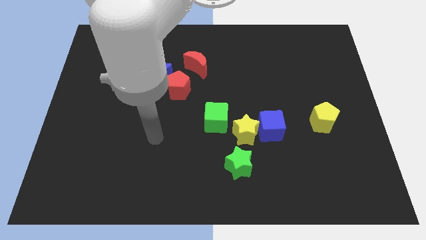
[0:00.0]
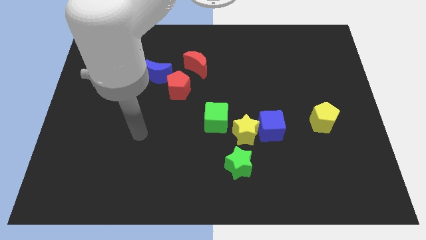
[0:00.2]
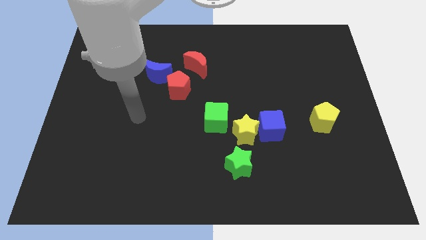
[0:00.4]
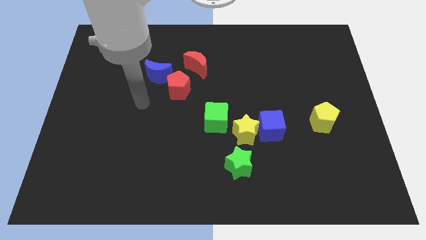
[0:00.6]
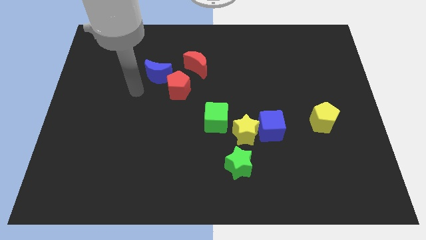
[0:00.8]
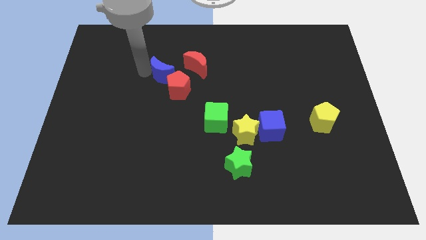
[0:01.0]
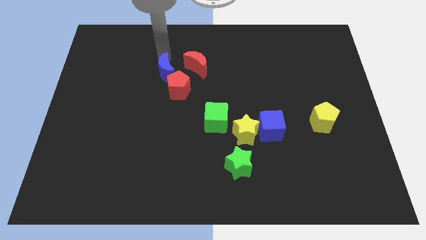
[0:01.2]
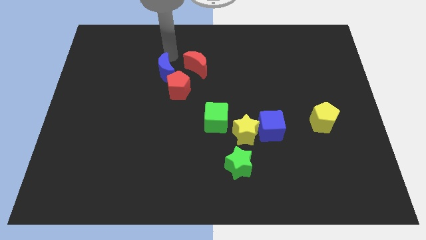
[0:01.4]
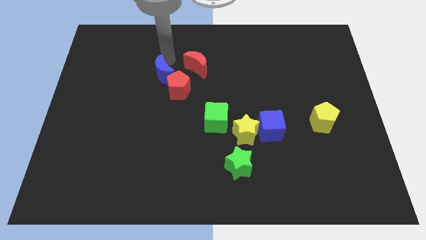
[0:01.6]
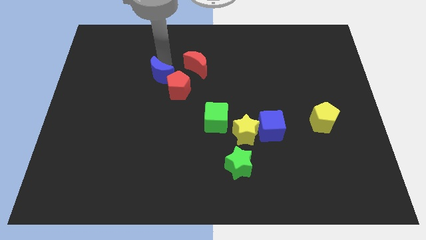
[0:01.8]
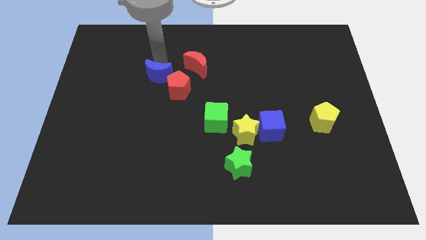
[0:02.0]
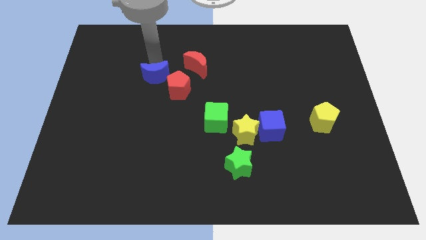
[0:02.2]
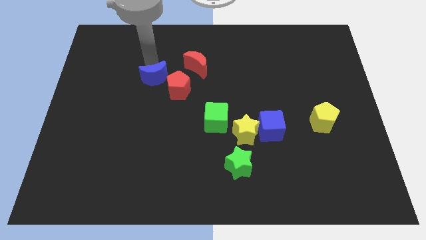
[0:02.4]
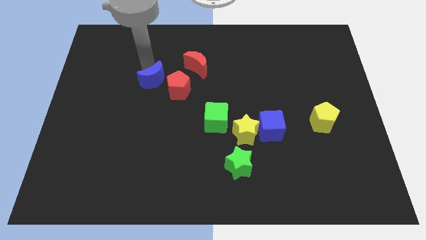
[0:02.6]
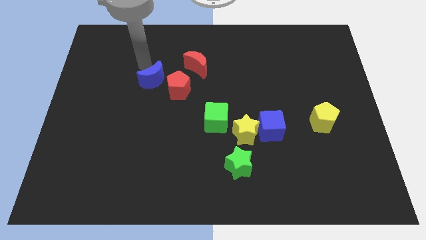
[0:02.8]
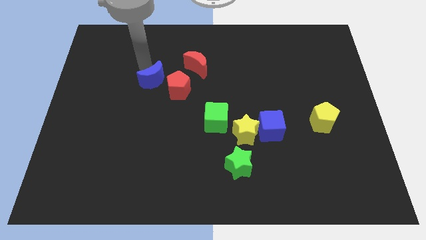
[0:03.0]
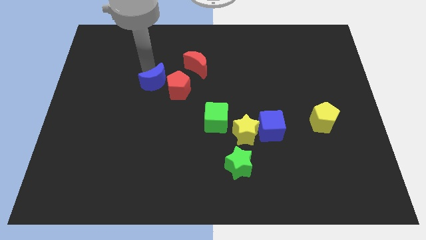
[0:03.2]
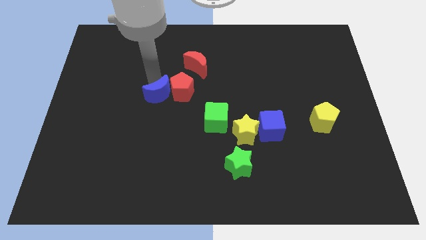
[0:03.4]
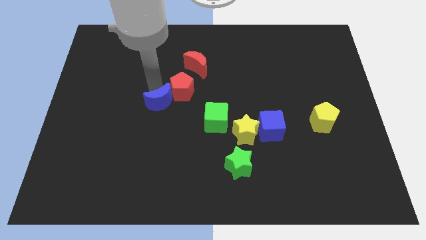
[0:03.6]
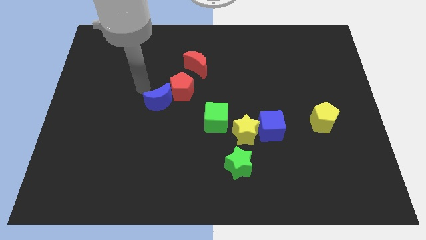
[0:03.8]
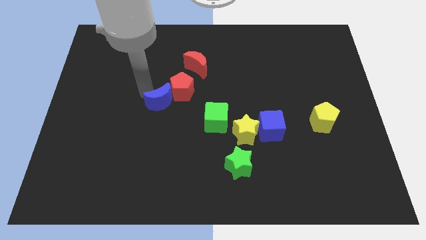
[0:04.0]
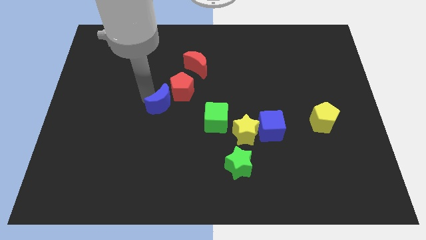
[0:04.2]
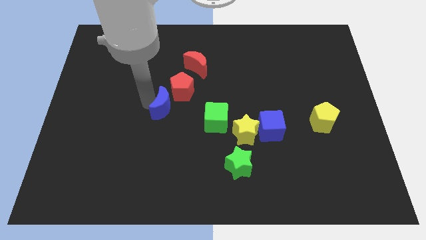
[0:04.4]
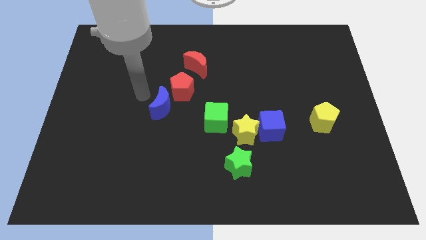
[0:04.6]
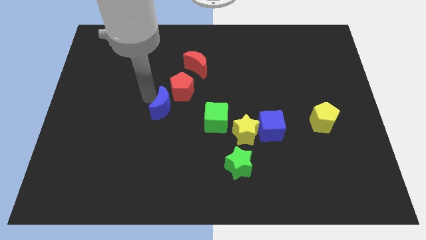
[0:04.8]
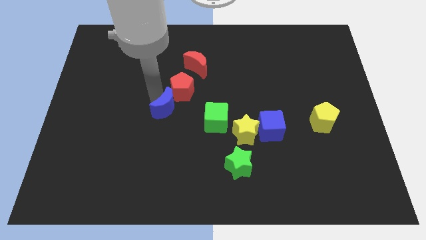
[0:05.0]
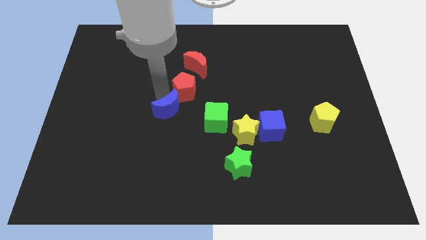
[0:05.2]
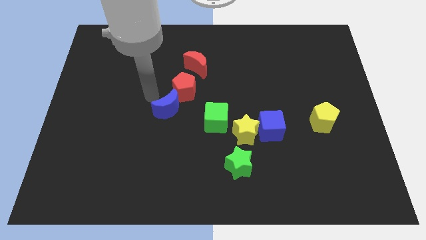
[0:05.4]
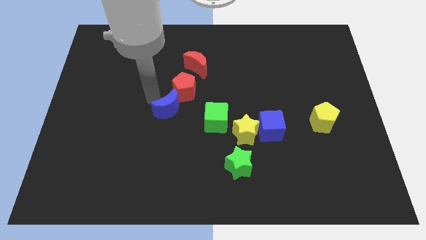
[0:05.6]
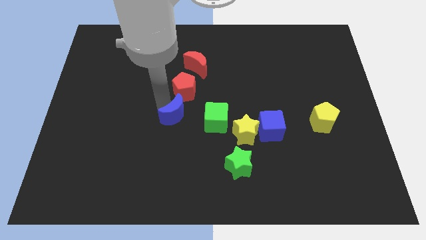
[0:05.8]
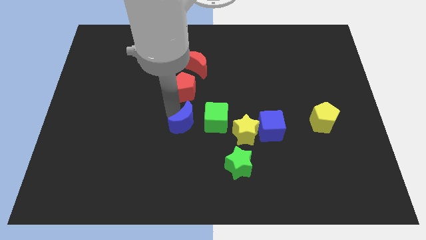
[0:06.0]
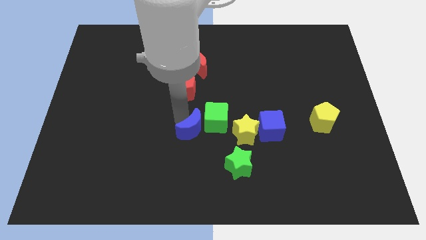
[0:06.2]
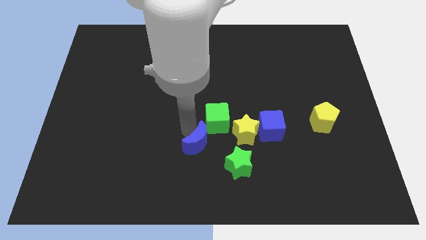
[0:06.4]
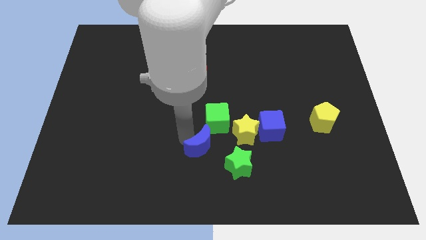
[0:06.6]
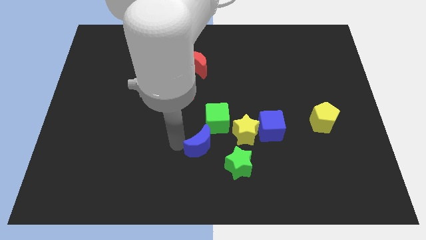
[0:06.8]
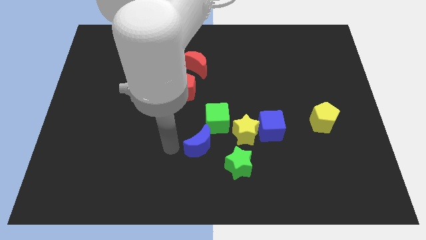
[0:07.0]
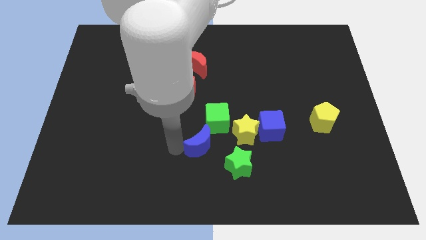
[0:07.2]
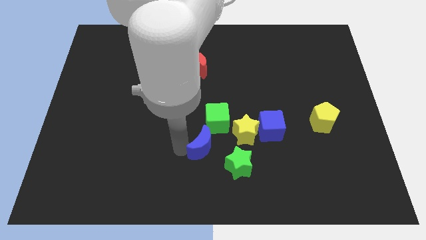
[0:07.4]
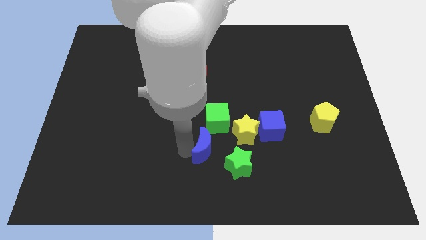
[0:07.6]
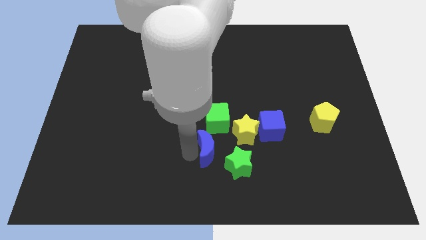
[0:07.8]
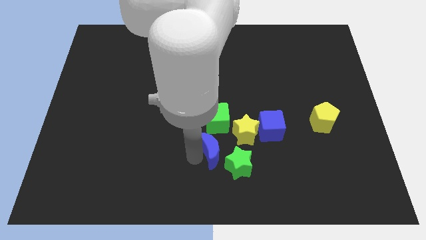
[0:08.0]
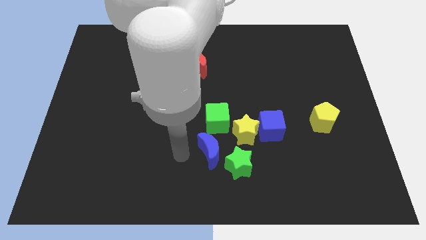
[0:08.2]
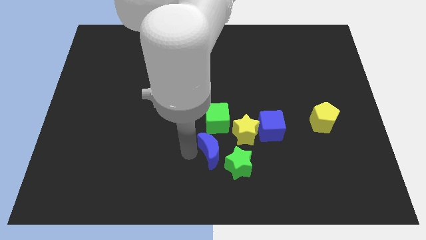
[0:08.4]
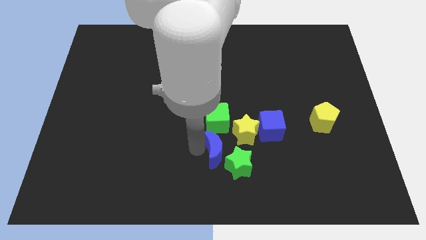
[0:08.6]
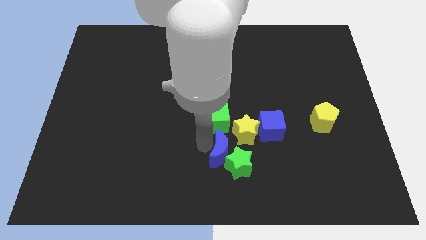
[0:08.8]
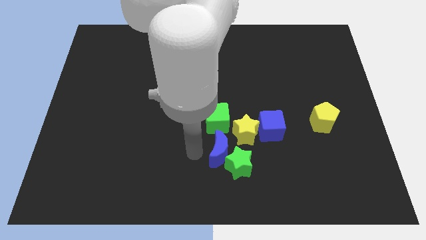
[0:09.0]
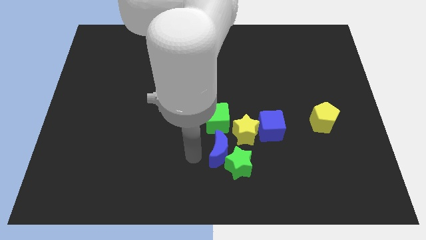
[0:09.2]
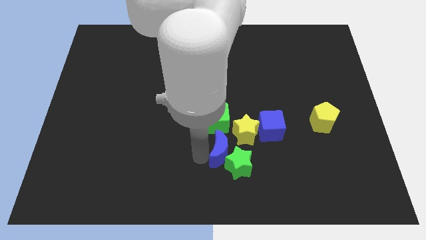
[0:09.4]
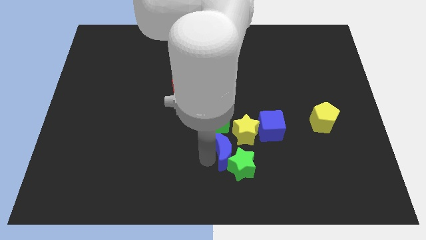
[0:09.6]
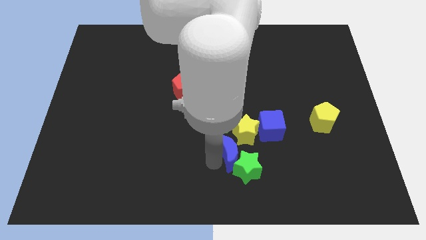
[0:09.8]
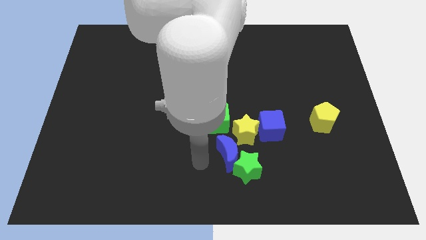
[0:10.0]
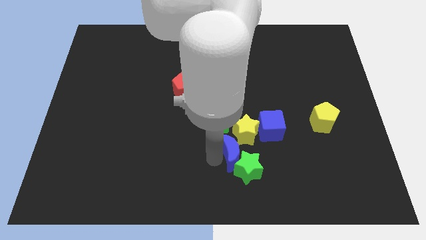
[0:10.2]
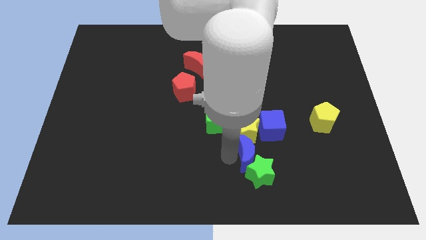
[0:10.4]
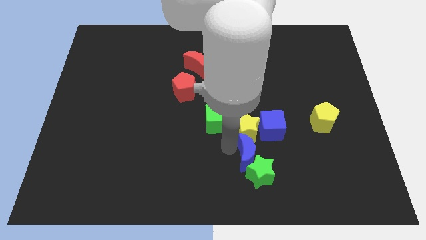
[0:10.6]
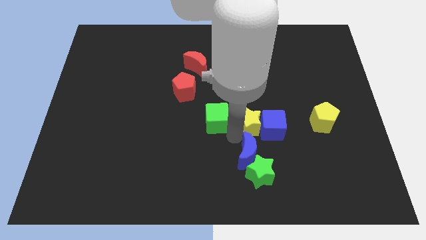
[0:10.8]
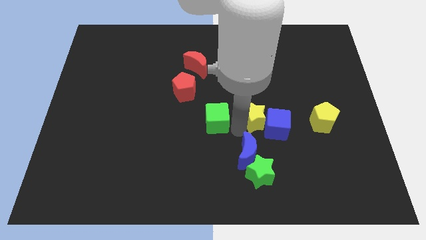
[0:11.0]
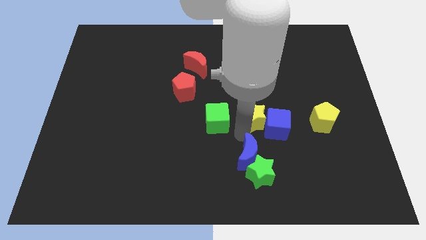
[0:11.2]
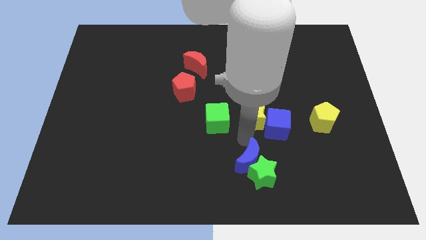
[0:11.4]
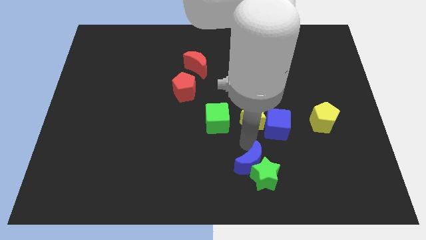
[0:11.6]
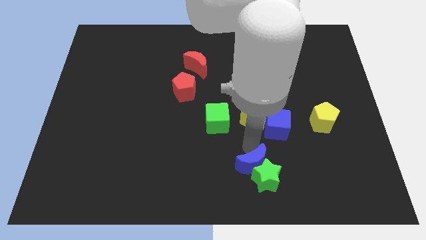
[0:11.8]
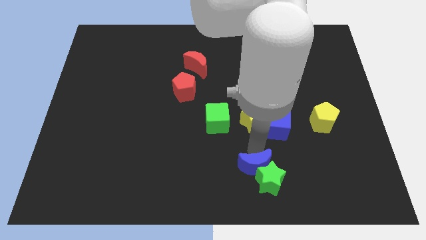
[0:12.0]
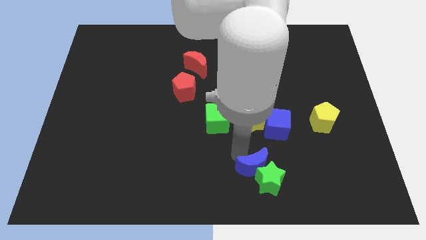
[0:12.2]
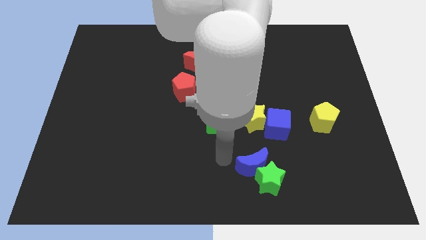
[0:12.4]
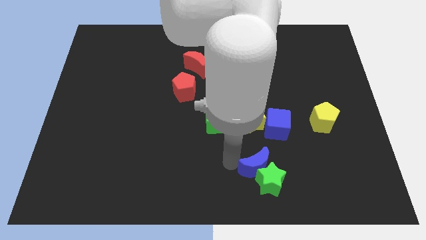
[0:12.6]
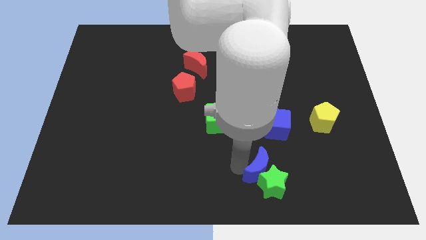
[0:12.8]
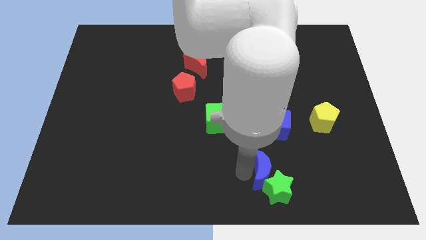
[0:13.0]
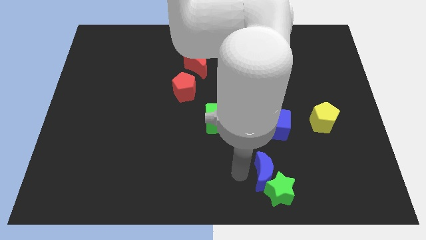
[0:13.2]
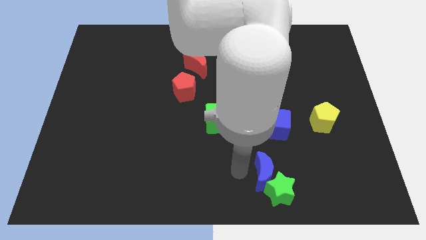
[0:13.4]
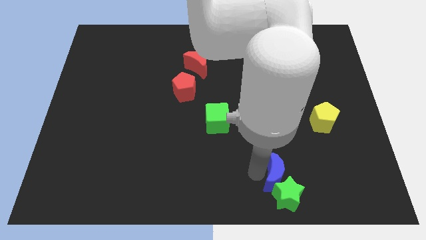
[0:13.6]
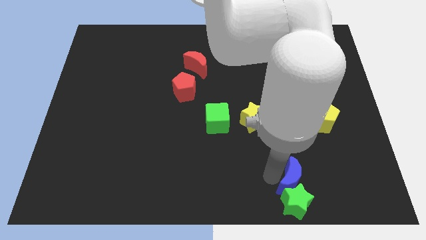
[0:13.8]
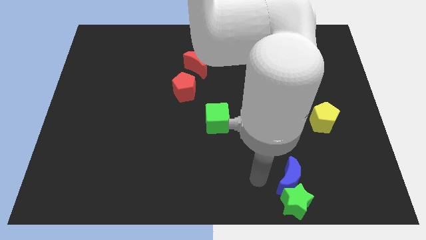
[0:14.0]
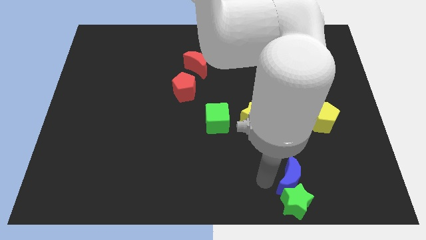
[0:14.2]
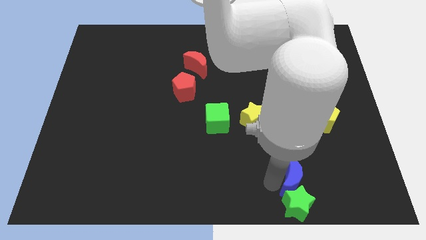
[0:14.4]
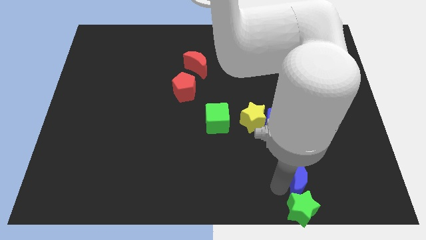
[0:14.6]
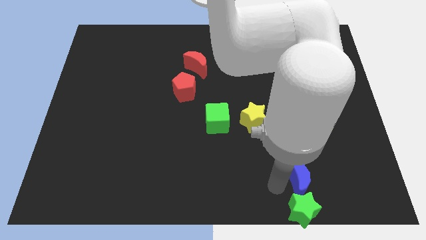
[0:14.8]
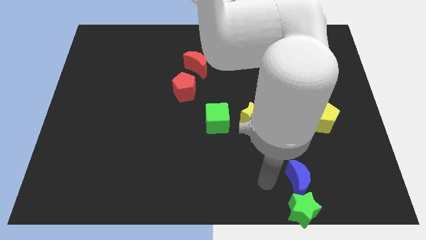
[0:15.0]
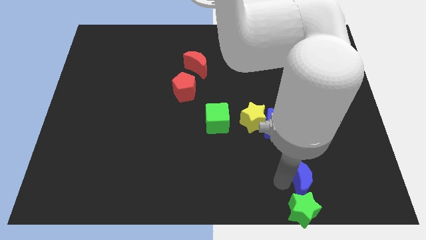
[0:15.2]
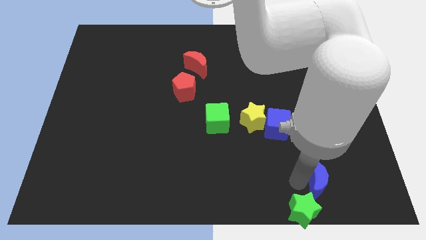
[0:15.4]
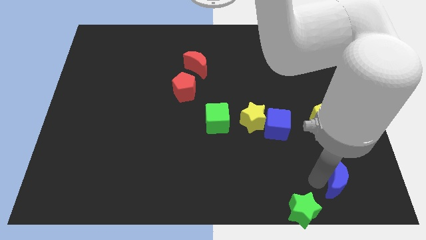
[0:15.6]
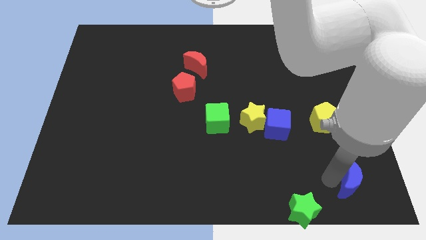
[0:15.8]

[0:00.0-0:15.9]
push the blue moon to the bottom right corner
